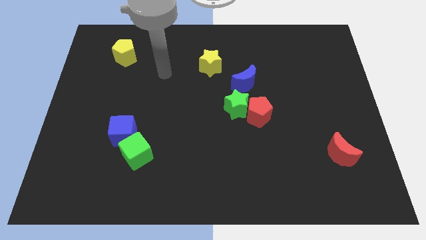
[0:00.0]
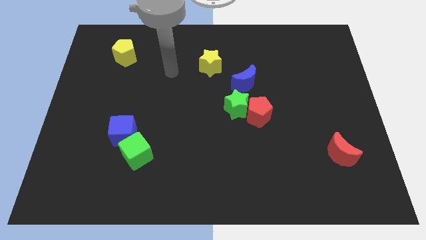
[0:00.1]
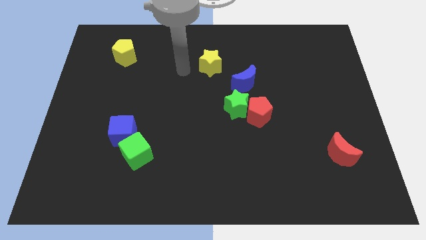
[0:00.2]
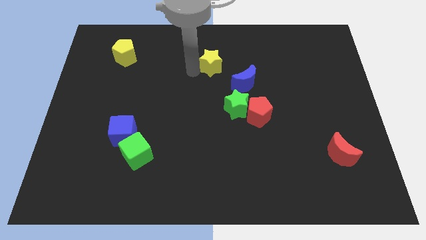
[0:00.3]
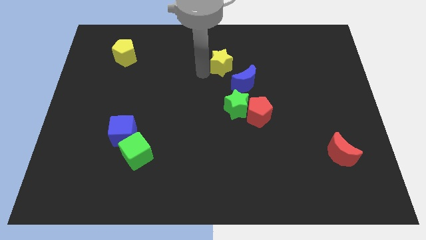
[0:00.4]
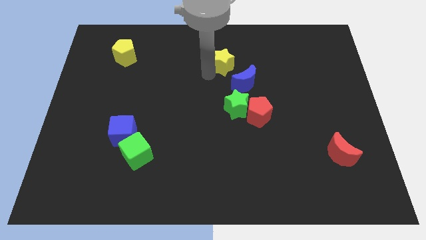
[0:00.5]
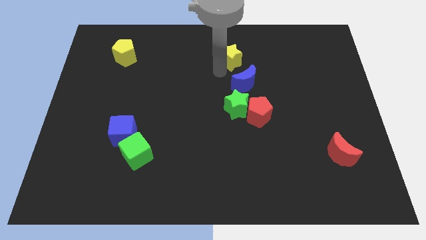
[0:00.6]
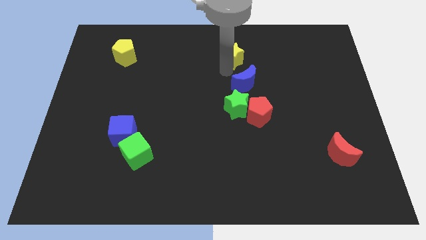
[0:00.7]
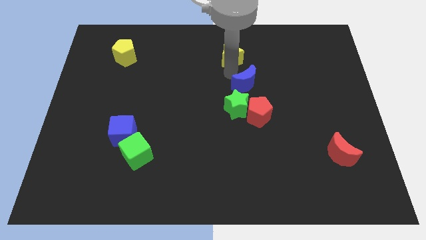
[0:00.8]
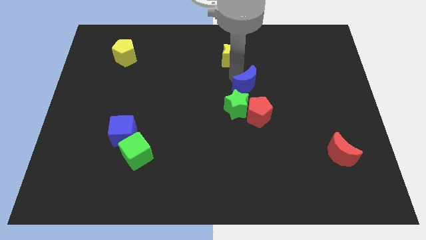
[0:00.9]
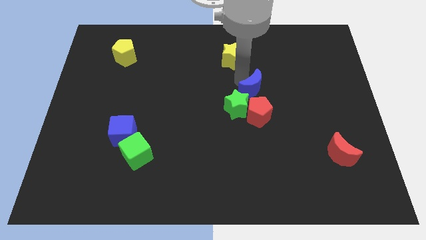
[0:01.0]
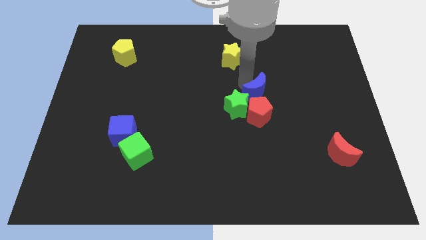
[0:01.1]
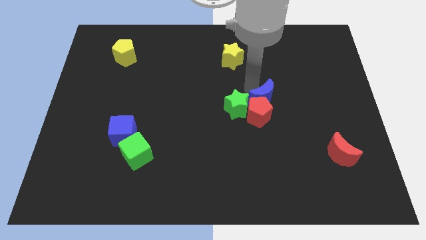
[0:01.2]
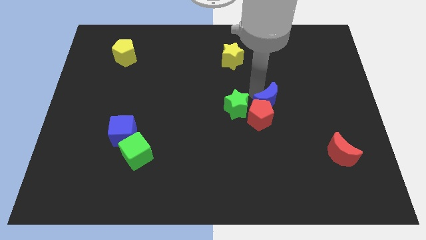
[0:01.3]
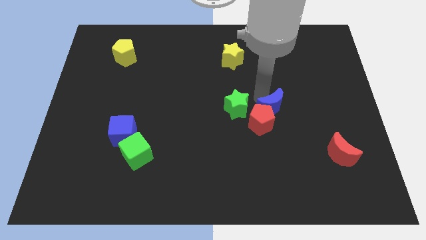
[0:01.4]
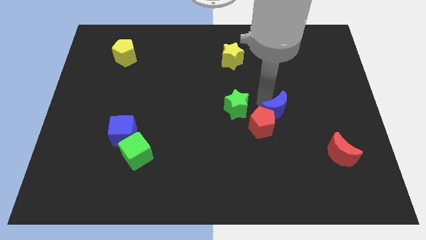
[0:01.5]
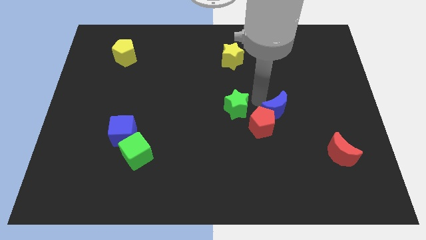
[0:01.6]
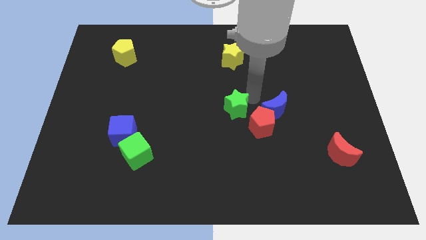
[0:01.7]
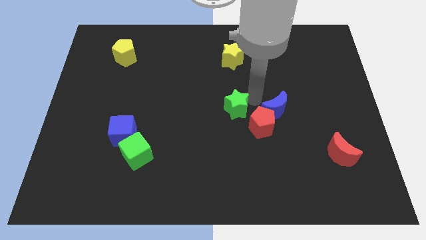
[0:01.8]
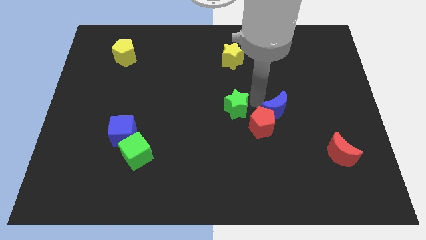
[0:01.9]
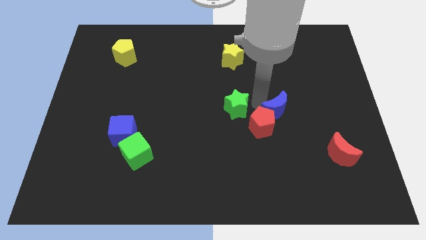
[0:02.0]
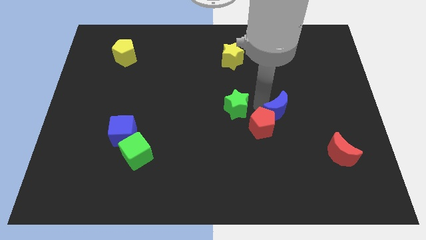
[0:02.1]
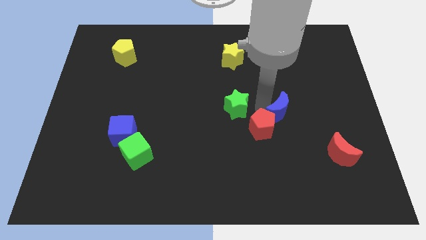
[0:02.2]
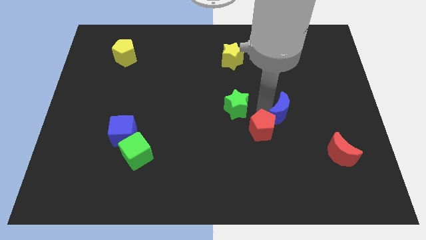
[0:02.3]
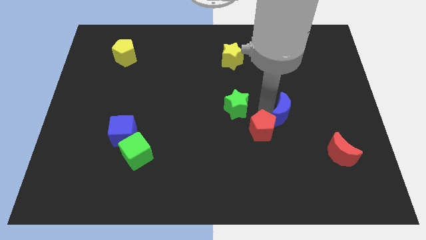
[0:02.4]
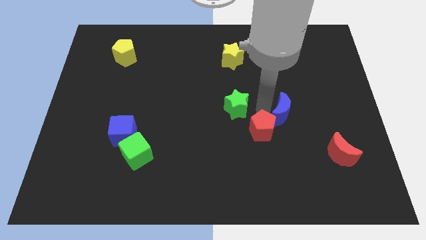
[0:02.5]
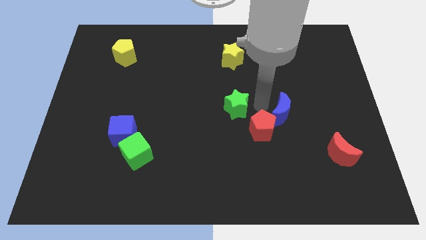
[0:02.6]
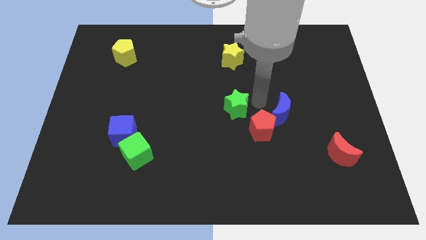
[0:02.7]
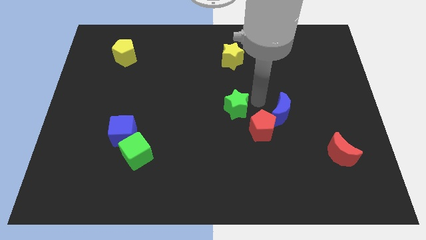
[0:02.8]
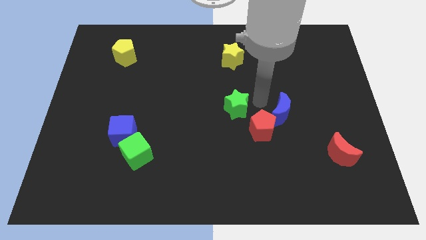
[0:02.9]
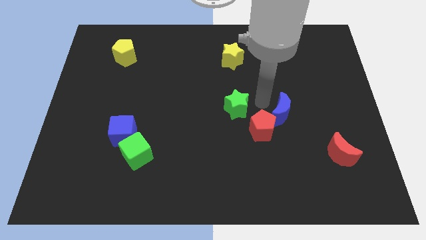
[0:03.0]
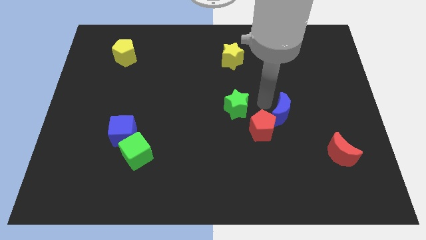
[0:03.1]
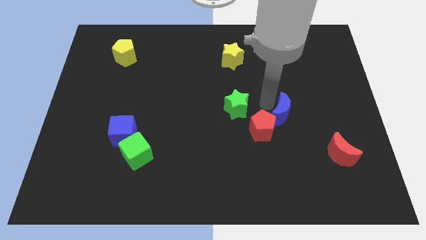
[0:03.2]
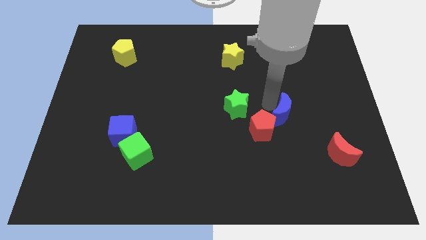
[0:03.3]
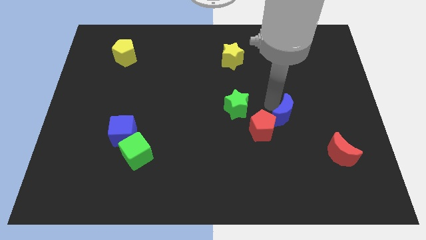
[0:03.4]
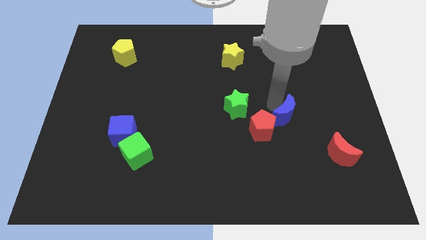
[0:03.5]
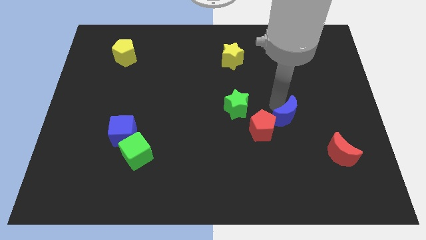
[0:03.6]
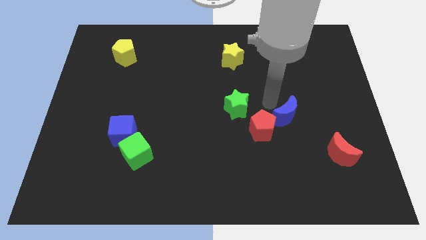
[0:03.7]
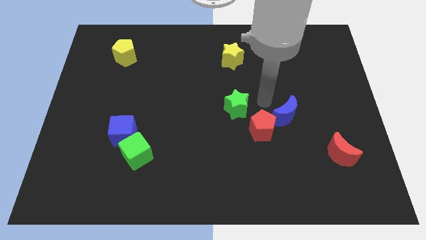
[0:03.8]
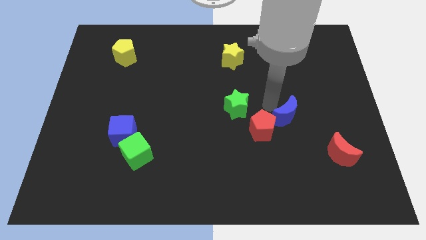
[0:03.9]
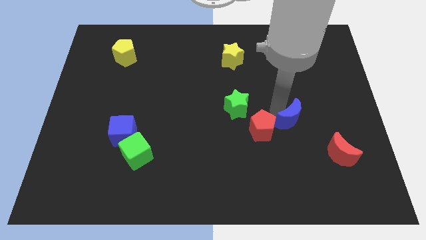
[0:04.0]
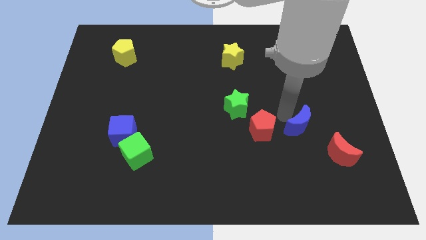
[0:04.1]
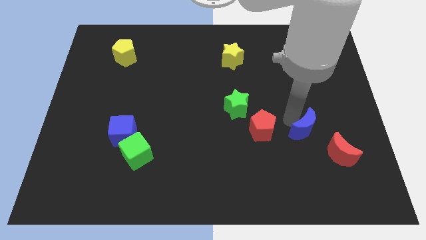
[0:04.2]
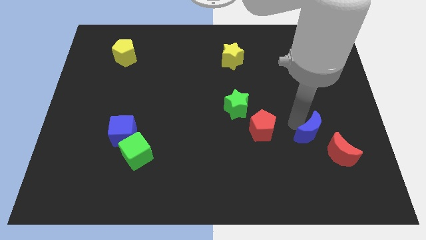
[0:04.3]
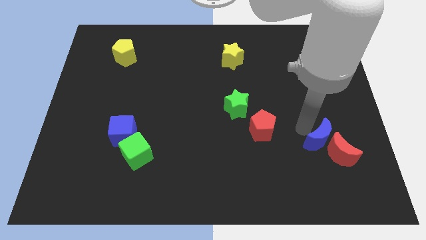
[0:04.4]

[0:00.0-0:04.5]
put the blue moon next to the red moon

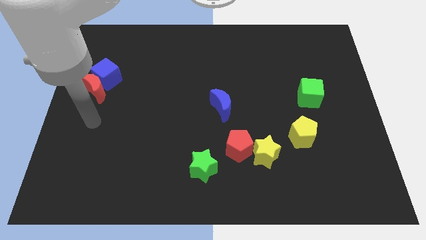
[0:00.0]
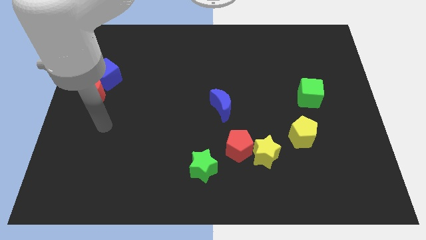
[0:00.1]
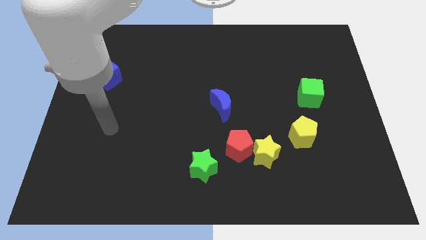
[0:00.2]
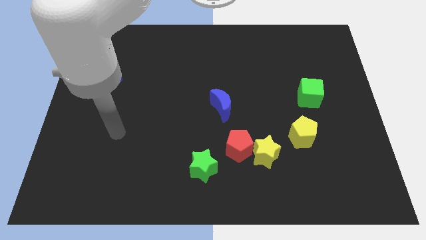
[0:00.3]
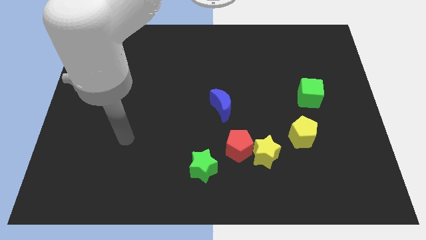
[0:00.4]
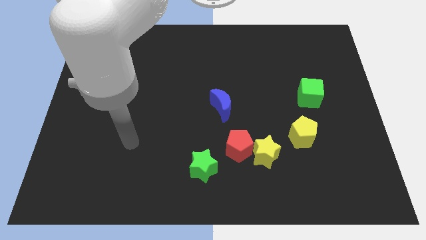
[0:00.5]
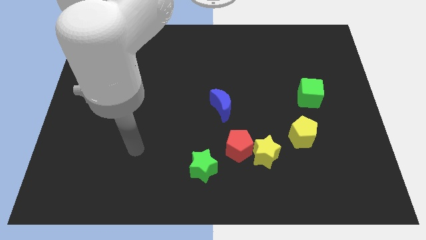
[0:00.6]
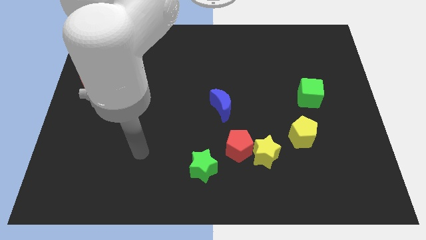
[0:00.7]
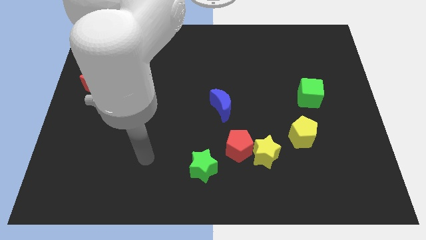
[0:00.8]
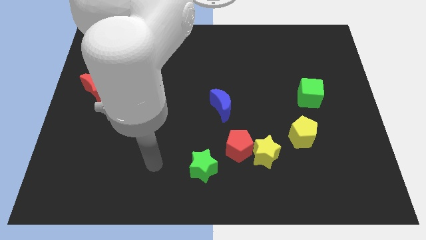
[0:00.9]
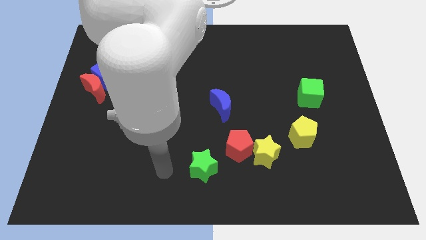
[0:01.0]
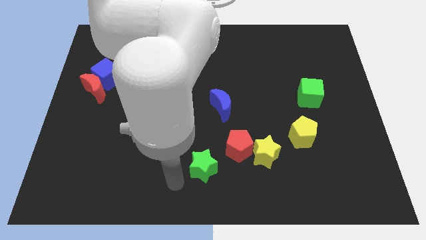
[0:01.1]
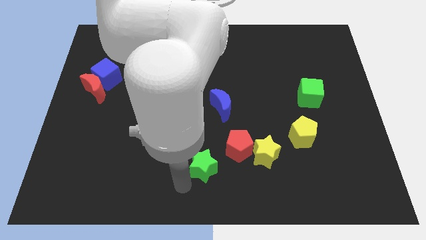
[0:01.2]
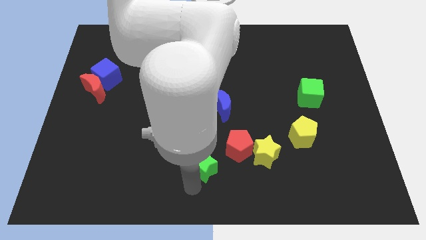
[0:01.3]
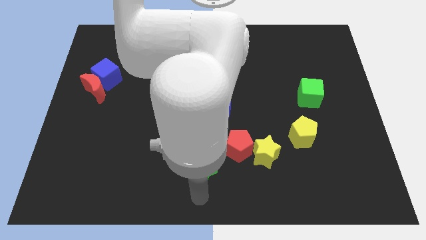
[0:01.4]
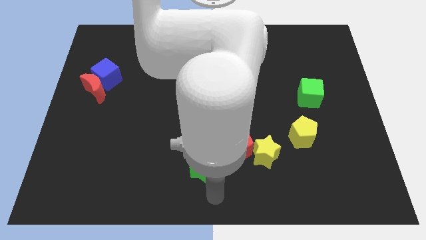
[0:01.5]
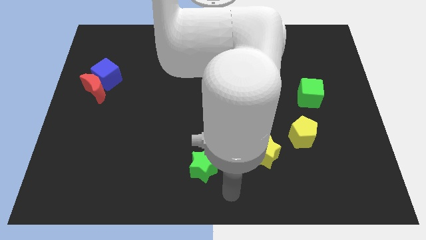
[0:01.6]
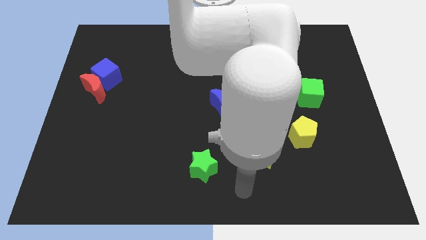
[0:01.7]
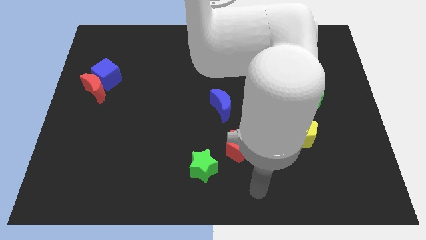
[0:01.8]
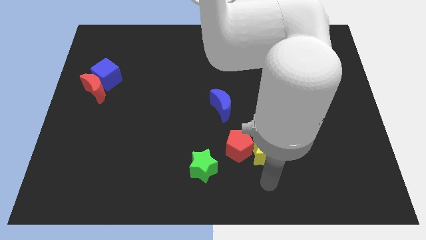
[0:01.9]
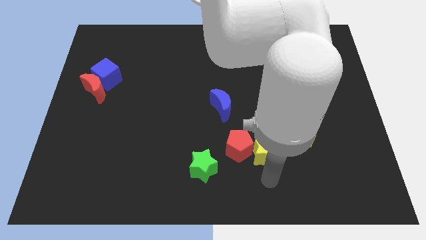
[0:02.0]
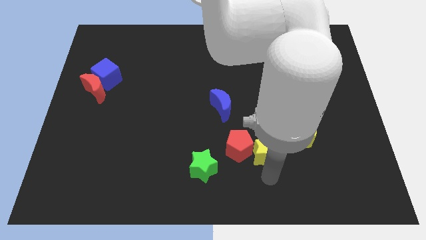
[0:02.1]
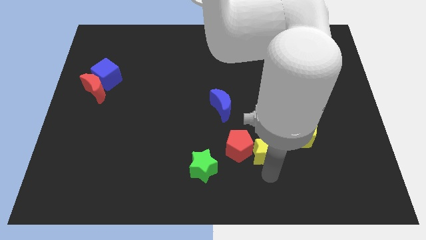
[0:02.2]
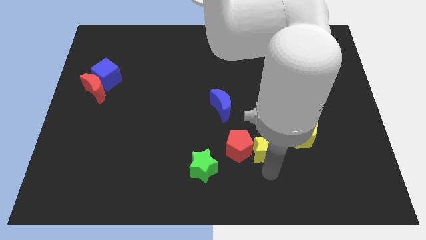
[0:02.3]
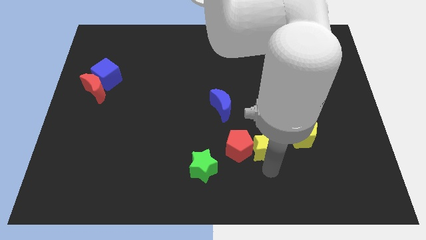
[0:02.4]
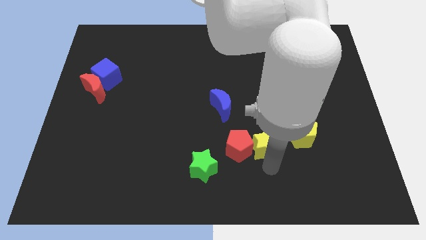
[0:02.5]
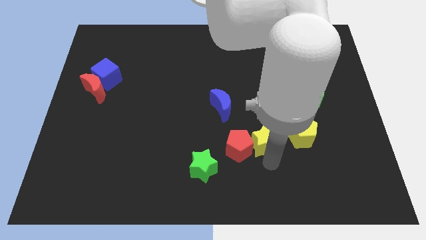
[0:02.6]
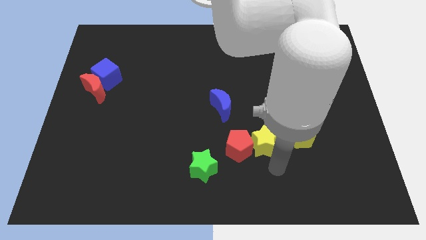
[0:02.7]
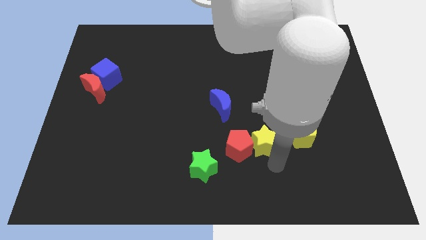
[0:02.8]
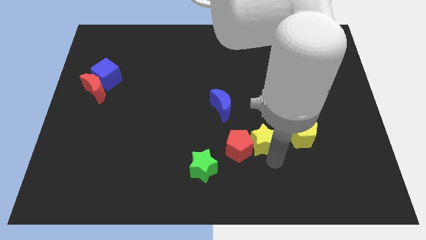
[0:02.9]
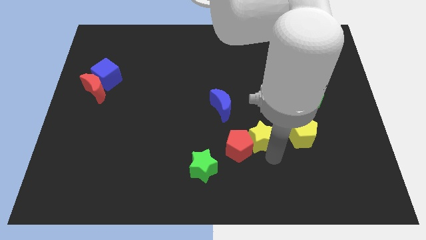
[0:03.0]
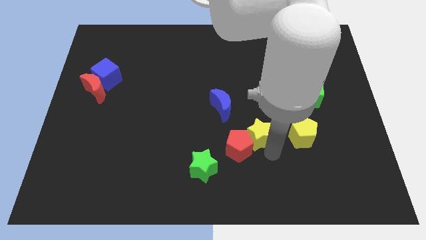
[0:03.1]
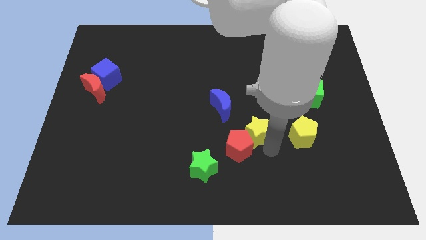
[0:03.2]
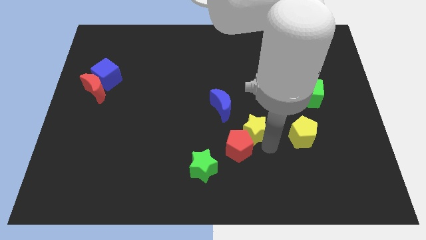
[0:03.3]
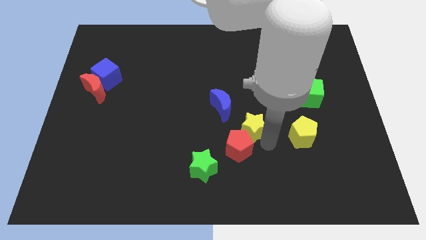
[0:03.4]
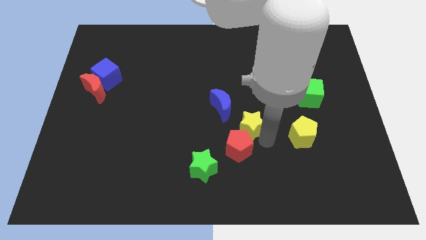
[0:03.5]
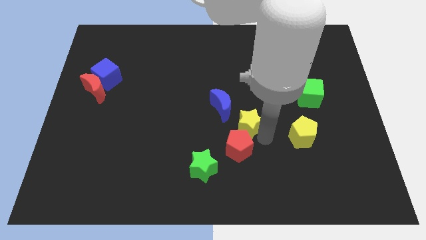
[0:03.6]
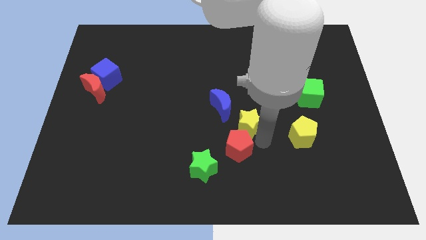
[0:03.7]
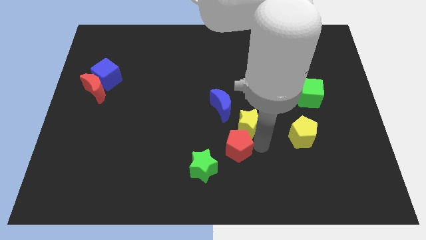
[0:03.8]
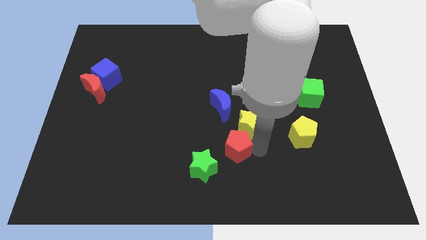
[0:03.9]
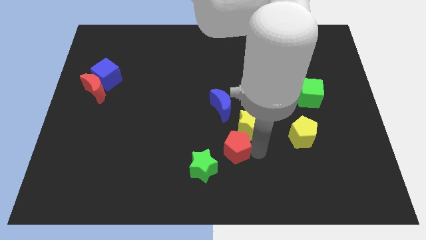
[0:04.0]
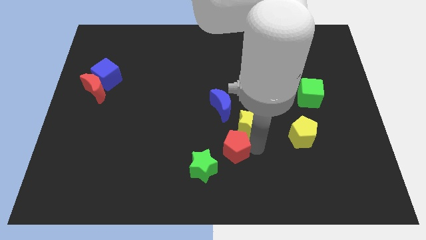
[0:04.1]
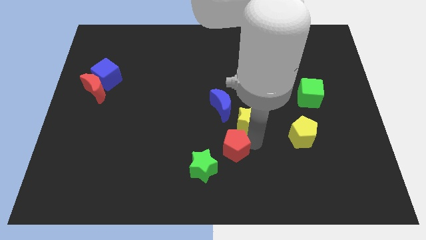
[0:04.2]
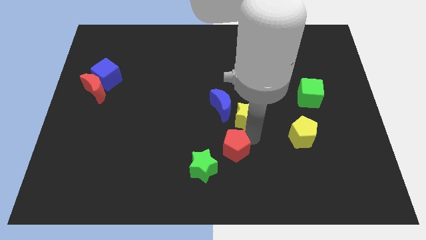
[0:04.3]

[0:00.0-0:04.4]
put the yellow star next to the blue moon
